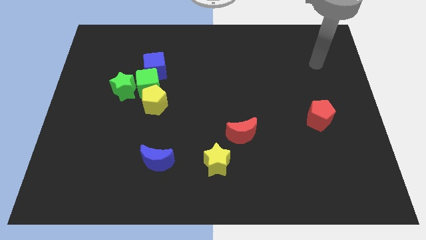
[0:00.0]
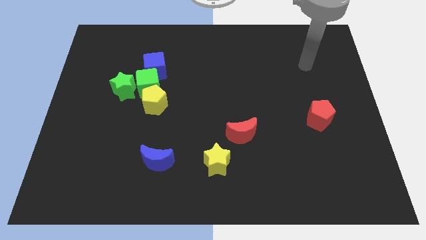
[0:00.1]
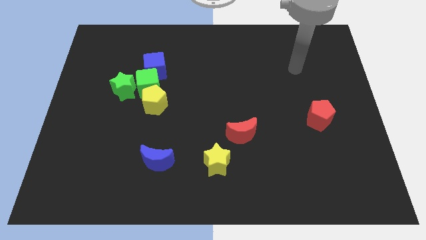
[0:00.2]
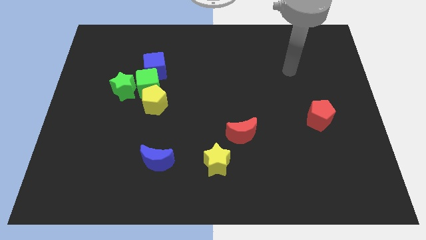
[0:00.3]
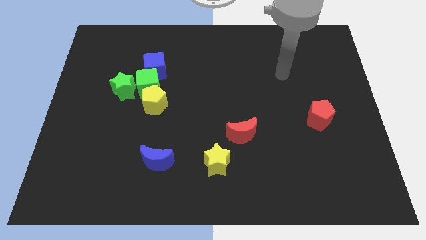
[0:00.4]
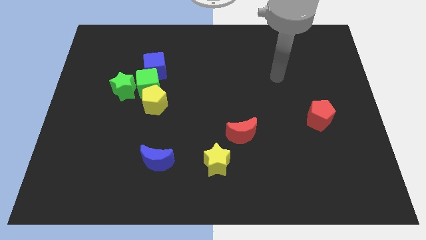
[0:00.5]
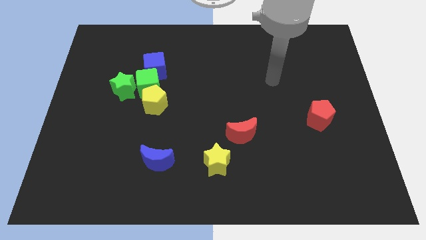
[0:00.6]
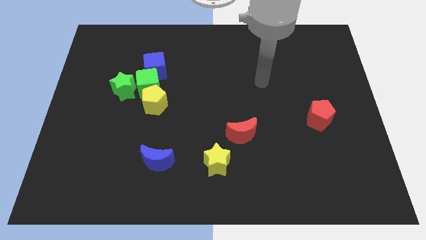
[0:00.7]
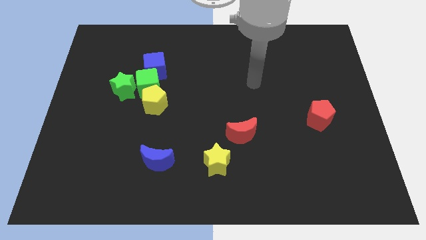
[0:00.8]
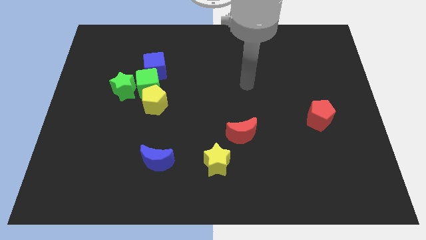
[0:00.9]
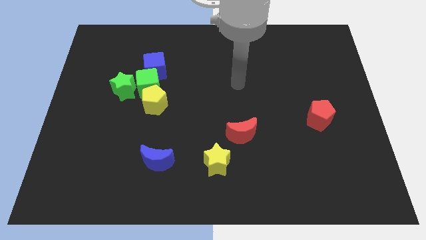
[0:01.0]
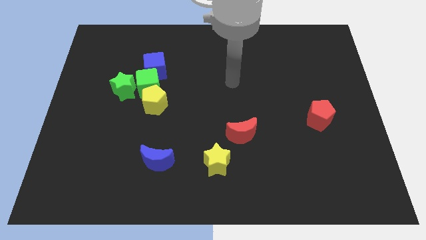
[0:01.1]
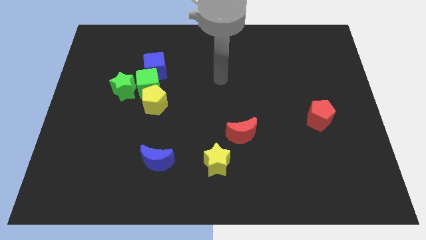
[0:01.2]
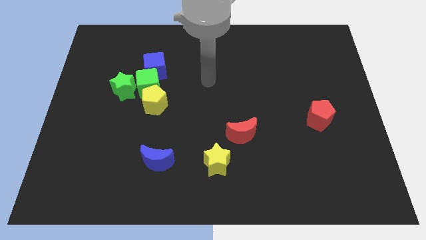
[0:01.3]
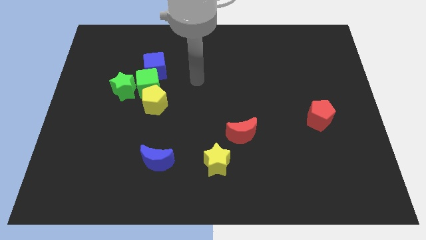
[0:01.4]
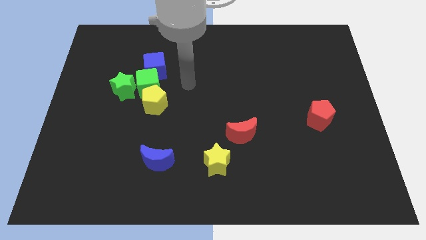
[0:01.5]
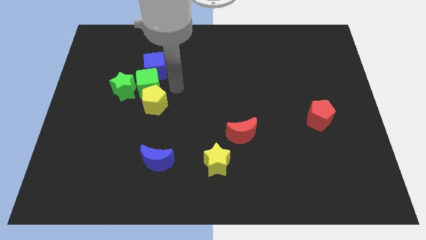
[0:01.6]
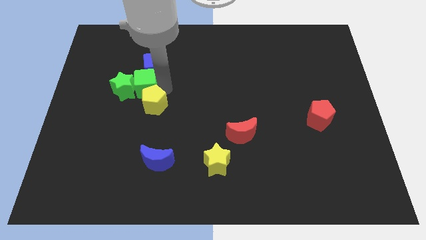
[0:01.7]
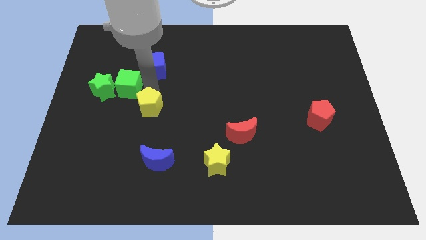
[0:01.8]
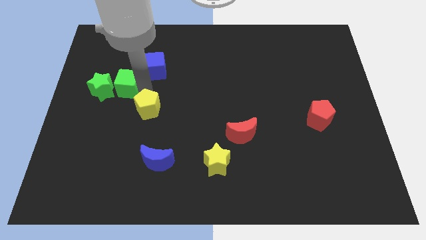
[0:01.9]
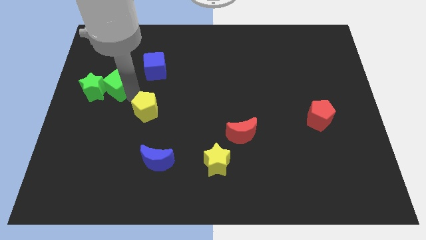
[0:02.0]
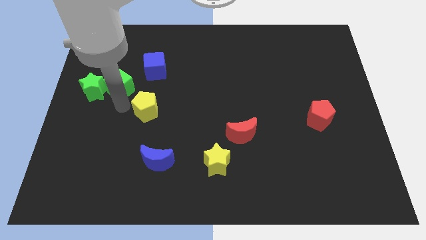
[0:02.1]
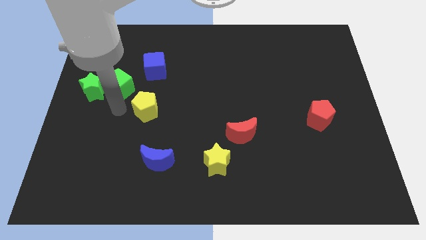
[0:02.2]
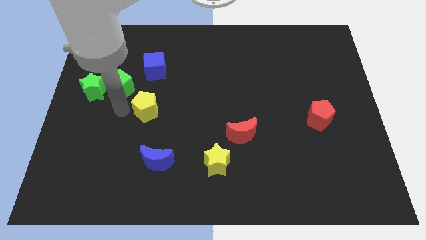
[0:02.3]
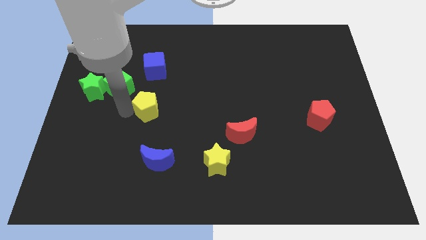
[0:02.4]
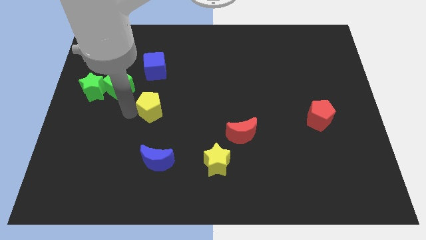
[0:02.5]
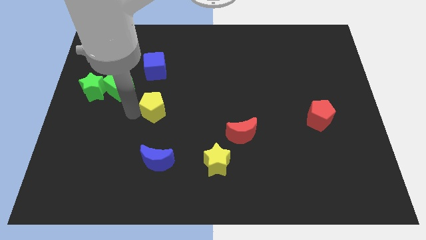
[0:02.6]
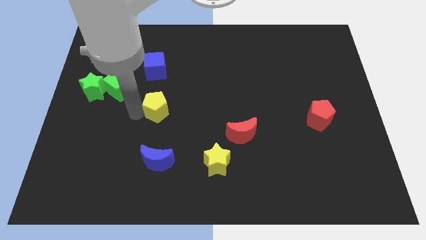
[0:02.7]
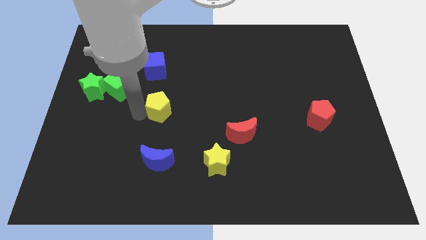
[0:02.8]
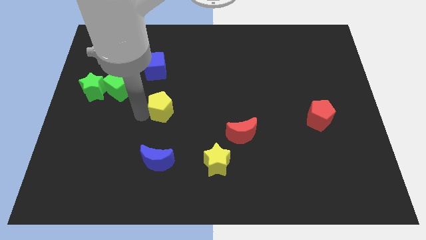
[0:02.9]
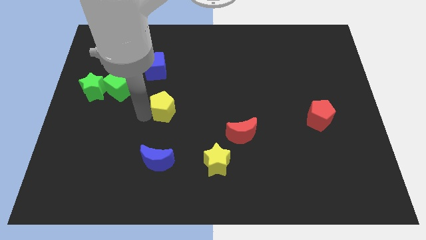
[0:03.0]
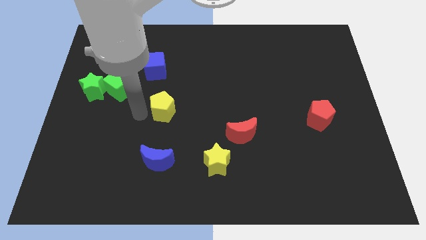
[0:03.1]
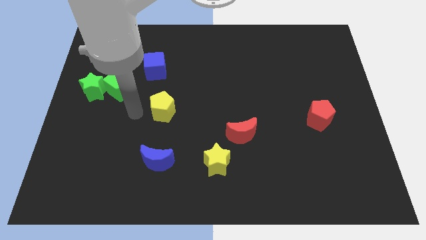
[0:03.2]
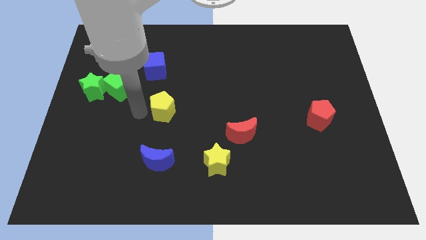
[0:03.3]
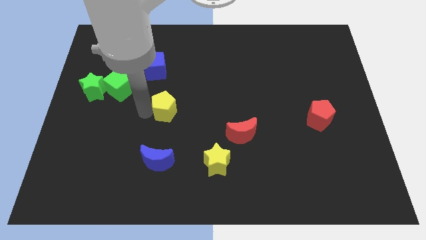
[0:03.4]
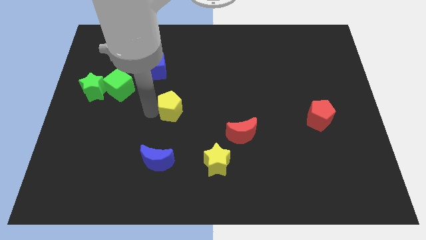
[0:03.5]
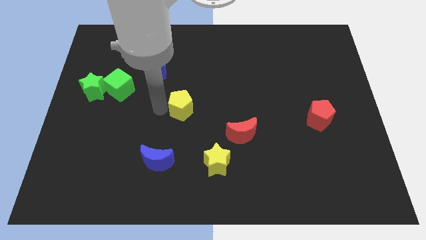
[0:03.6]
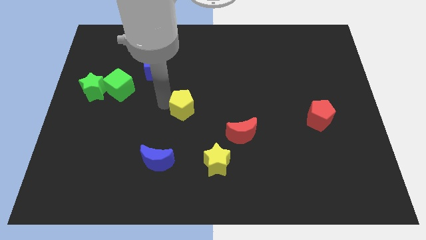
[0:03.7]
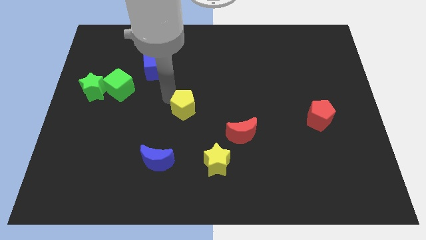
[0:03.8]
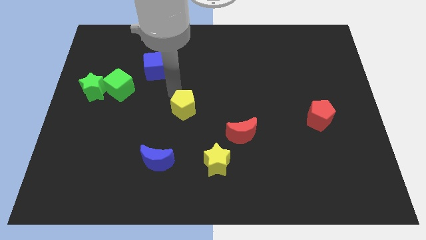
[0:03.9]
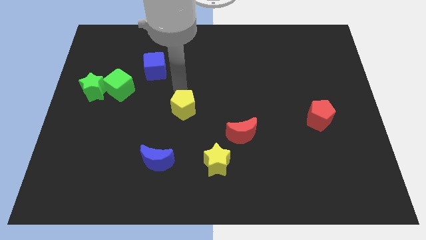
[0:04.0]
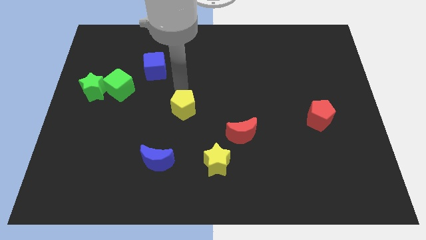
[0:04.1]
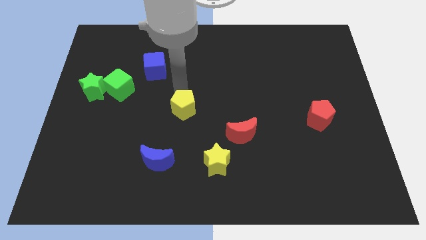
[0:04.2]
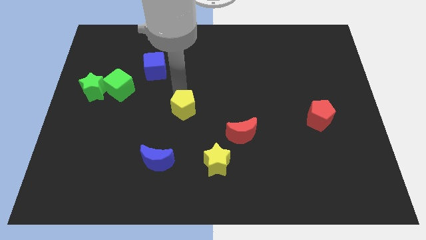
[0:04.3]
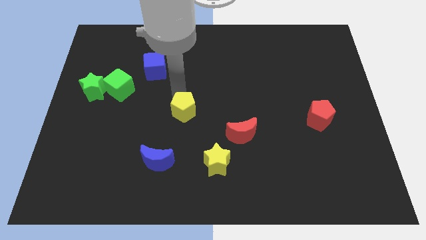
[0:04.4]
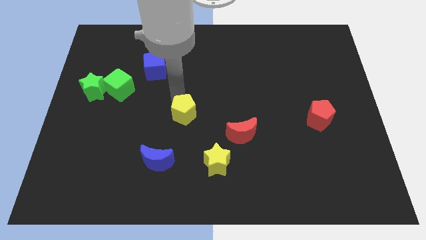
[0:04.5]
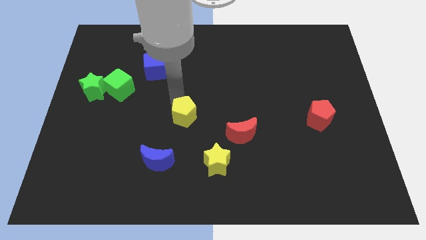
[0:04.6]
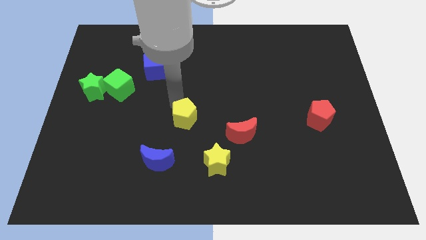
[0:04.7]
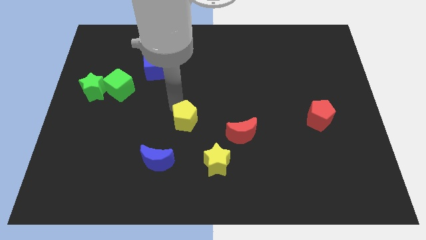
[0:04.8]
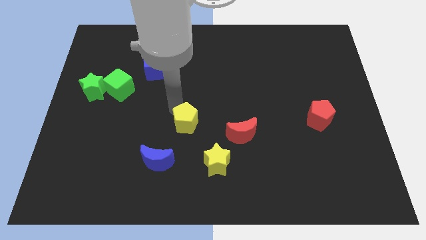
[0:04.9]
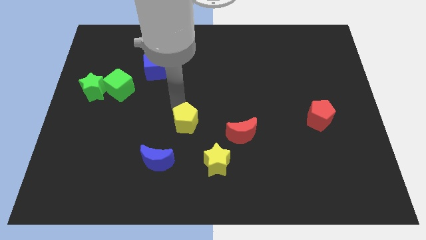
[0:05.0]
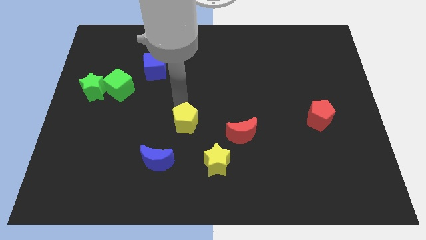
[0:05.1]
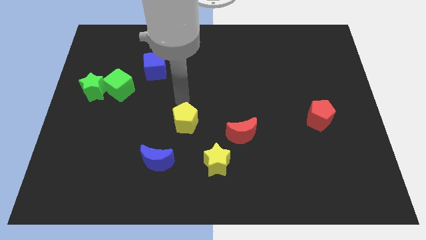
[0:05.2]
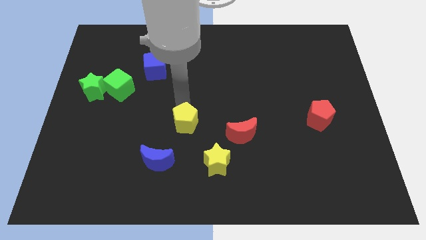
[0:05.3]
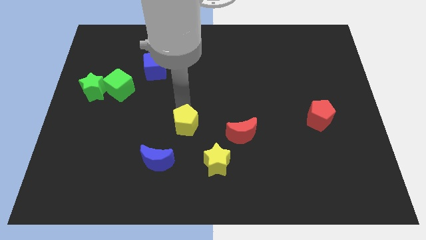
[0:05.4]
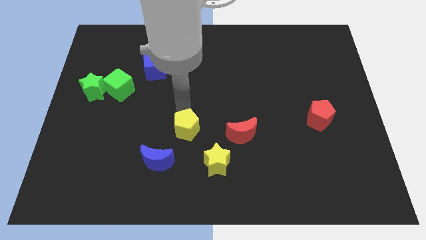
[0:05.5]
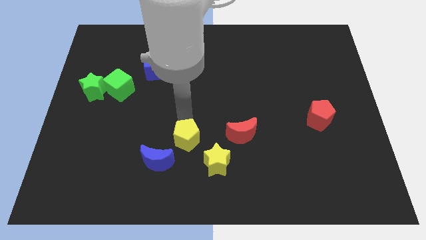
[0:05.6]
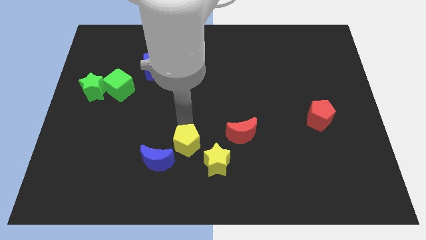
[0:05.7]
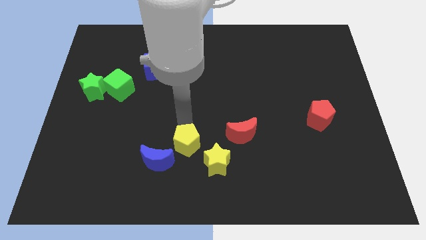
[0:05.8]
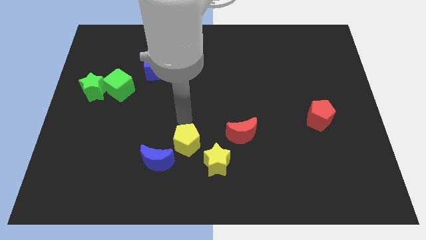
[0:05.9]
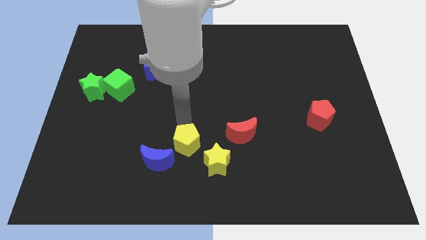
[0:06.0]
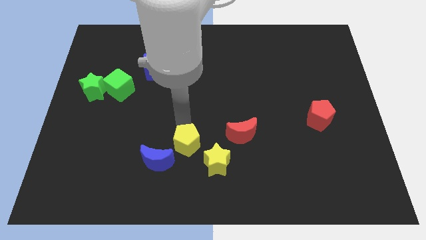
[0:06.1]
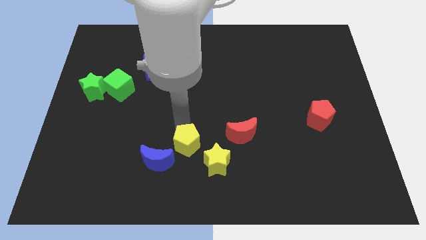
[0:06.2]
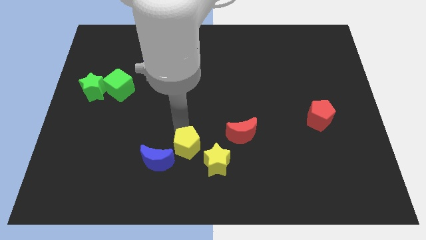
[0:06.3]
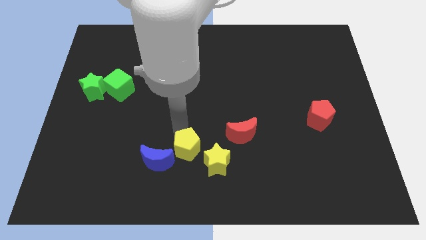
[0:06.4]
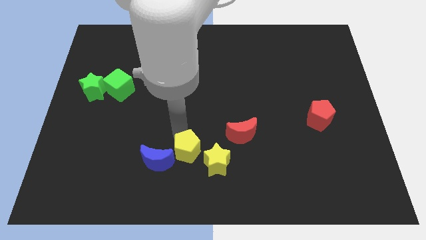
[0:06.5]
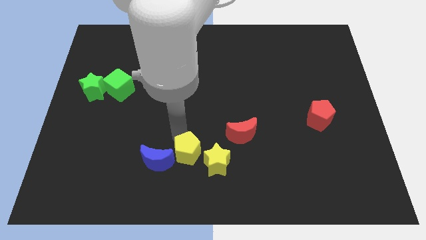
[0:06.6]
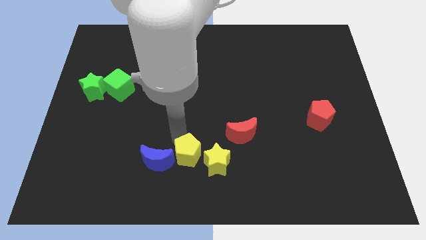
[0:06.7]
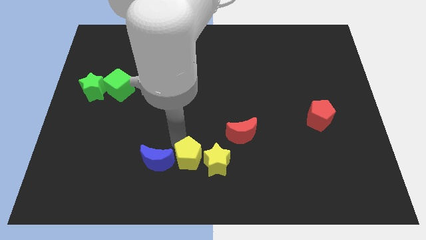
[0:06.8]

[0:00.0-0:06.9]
slide the yellow pentagon to the bottom side
